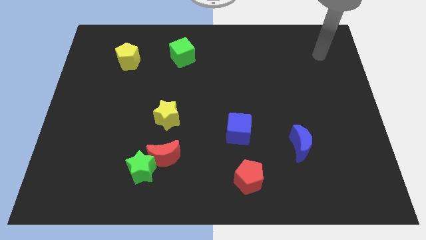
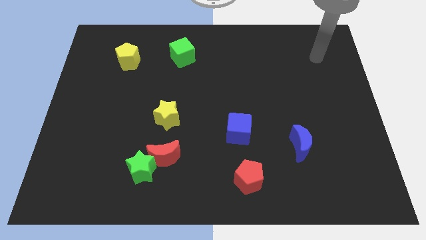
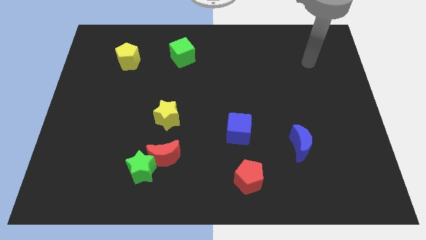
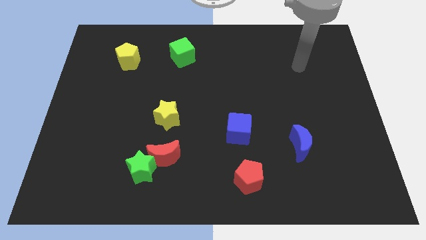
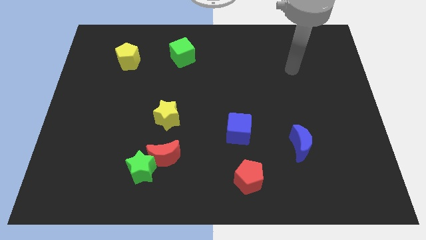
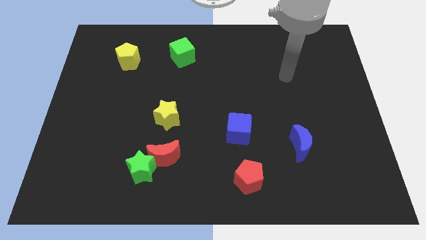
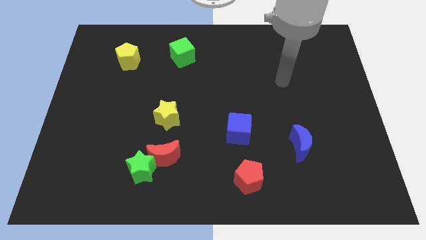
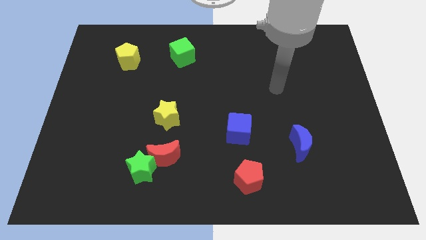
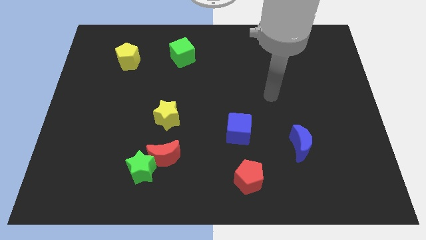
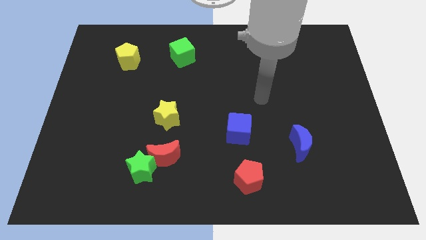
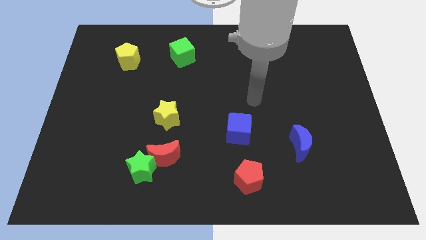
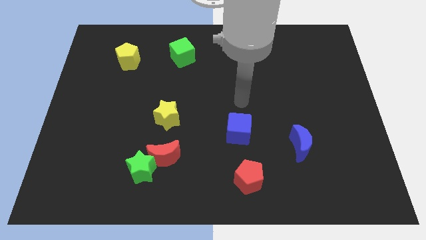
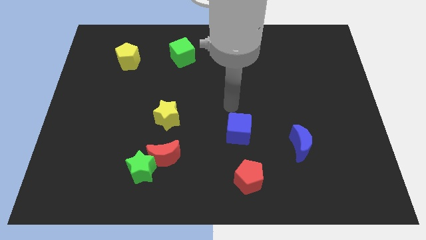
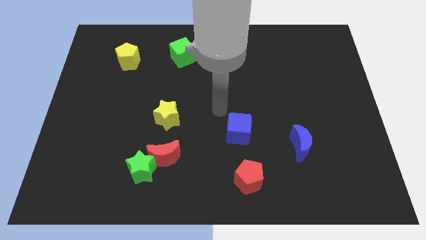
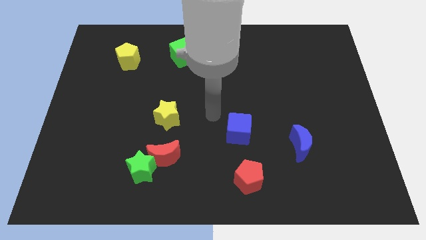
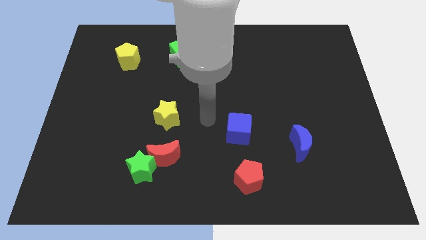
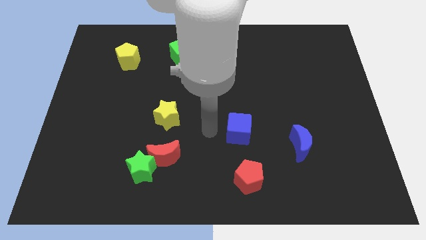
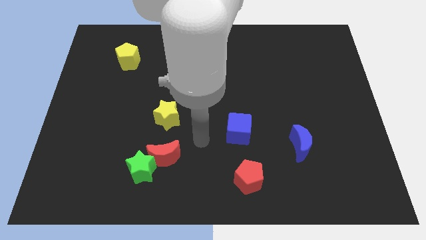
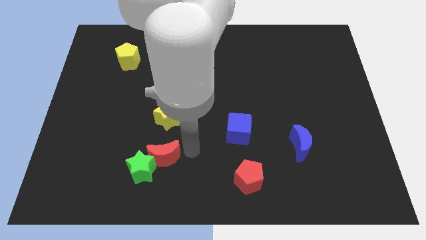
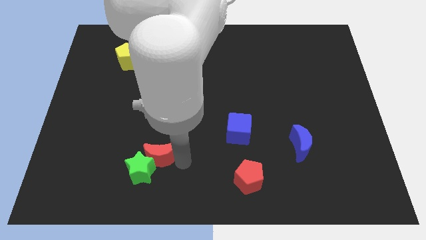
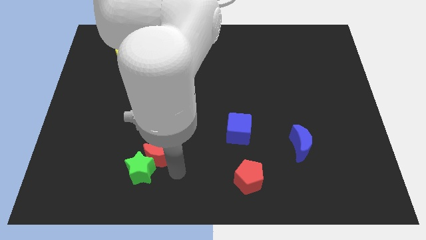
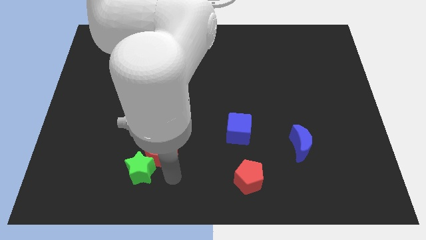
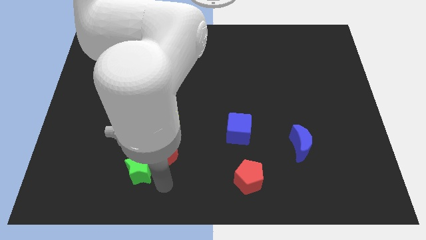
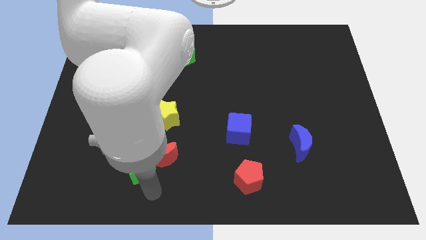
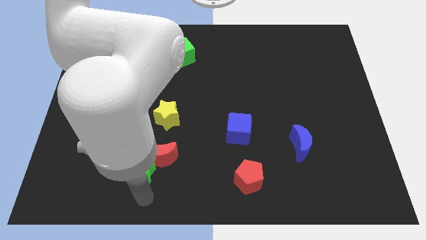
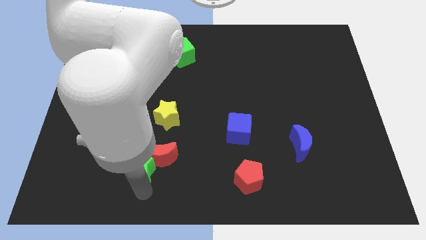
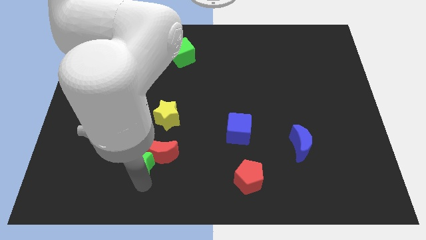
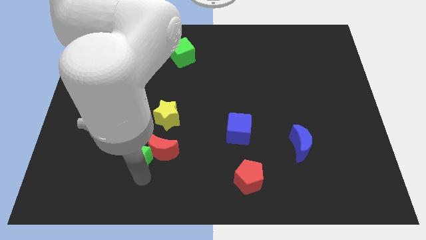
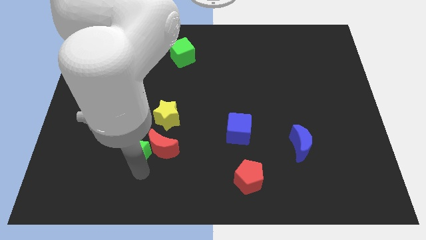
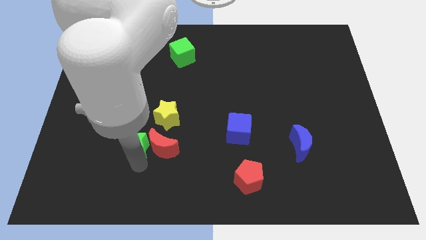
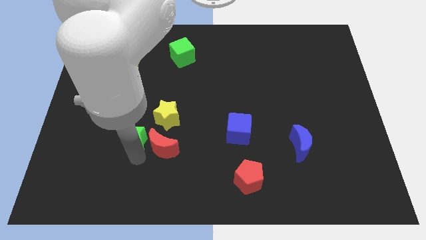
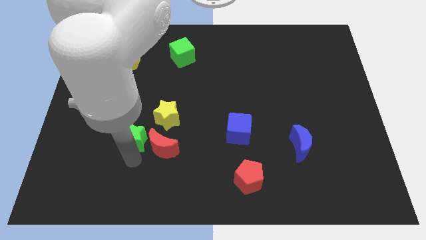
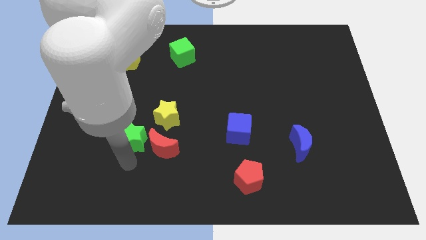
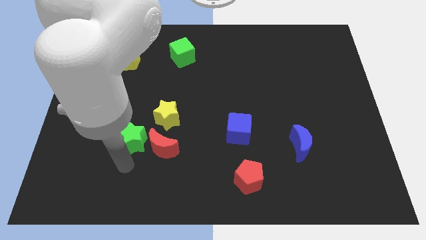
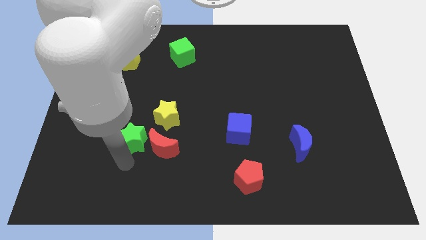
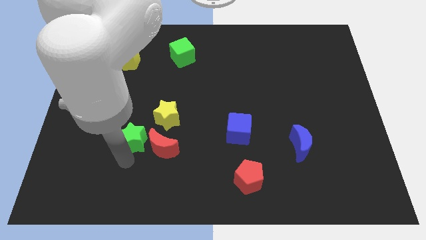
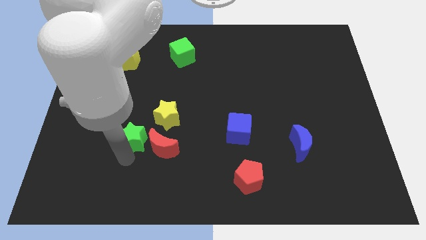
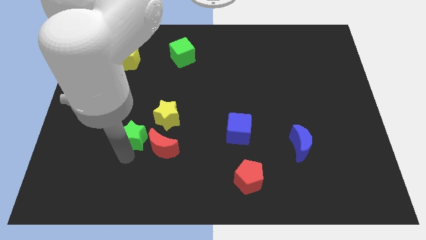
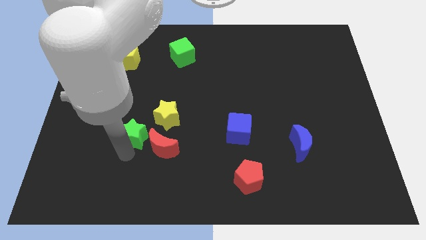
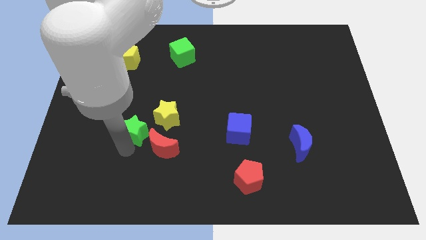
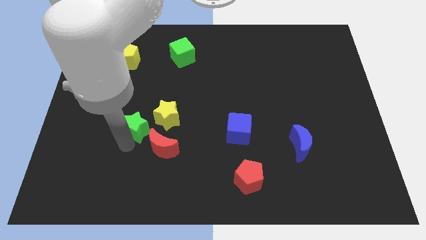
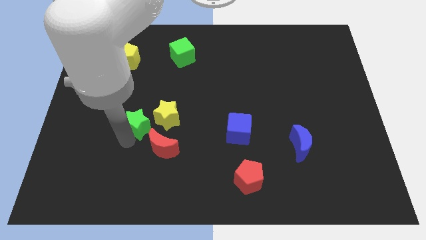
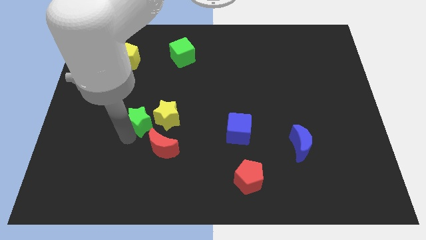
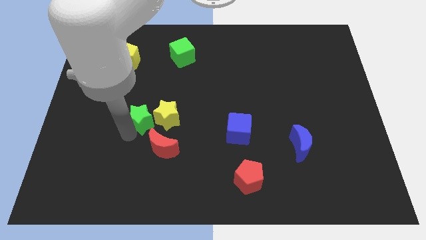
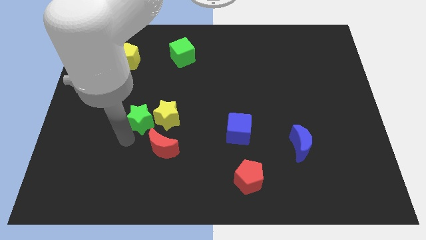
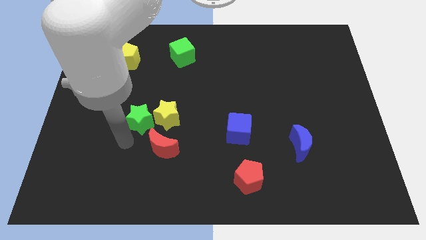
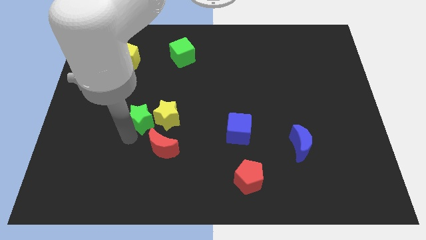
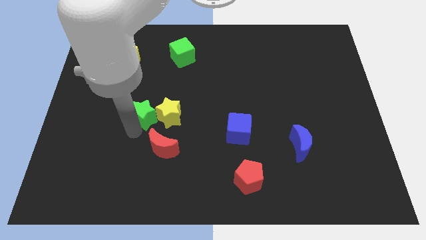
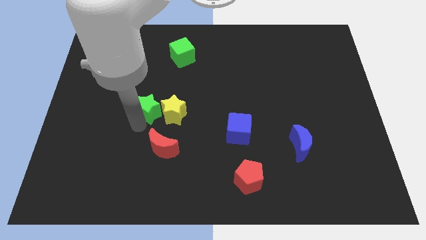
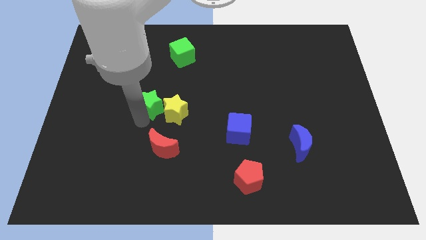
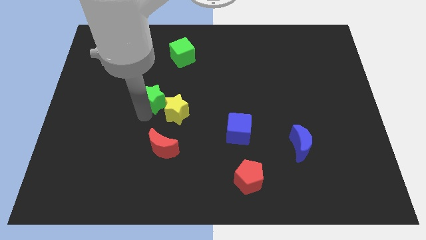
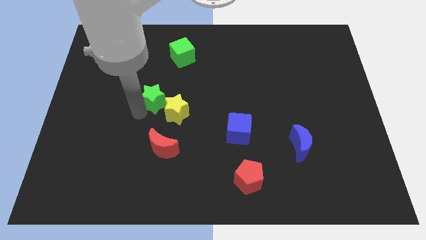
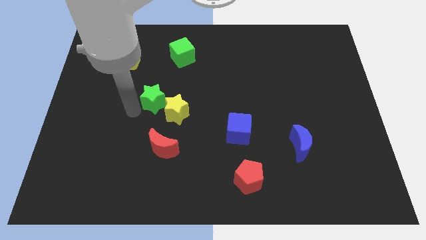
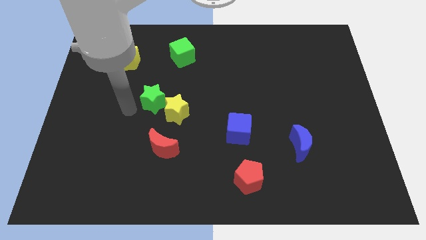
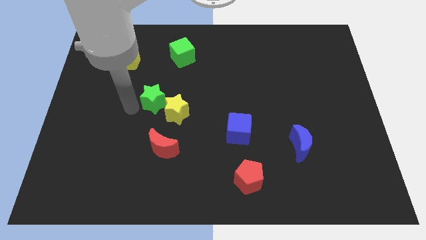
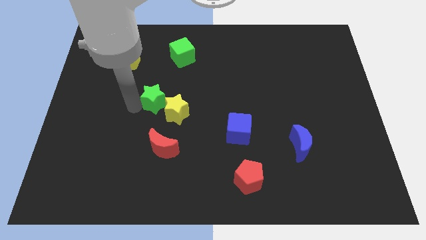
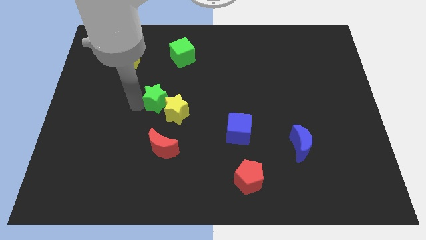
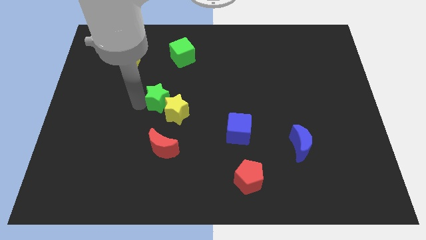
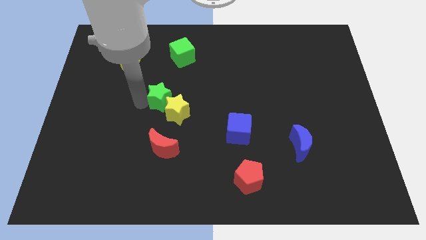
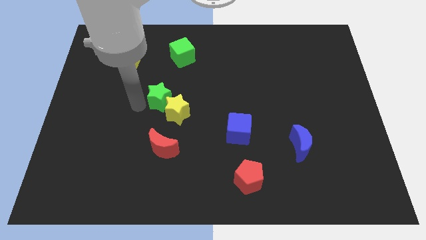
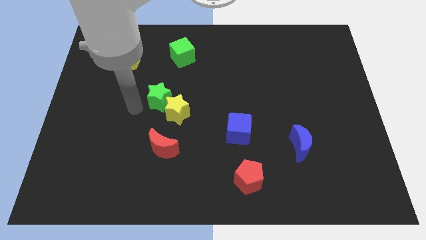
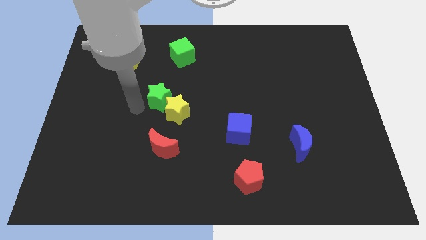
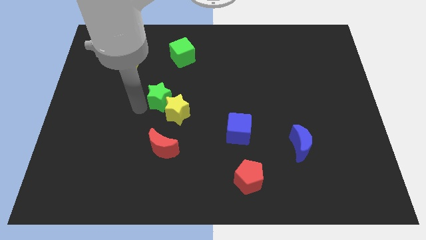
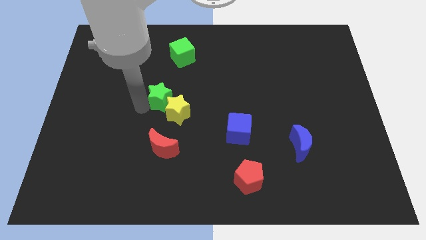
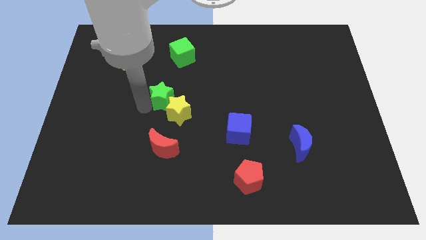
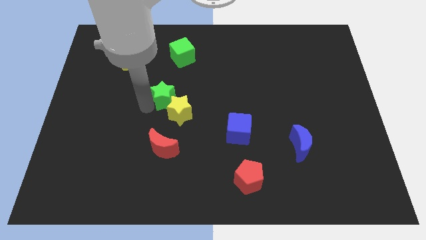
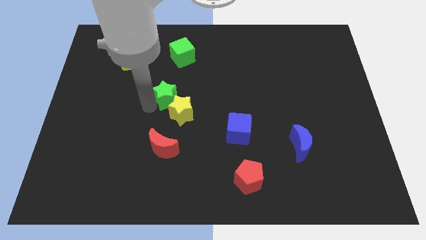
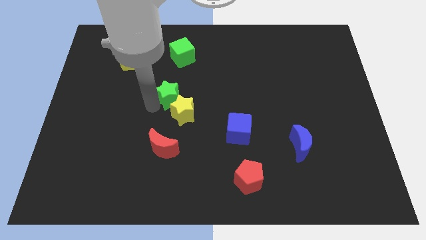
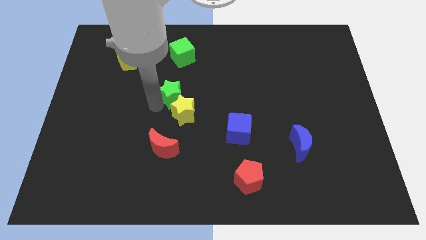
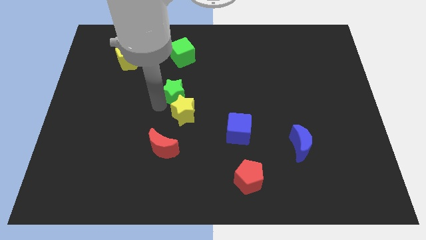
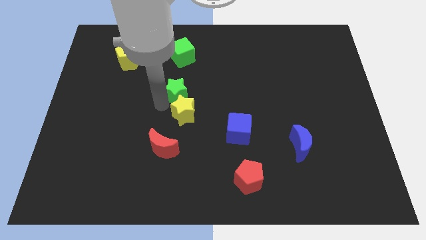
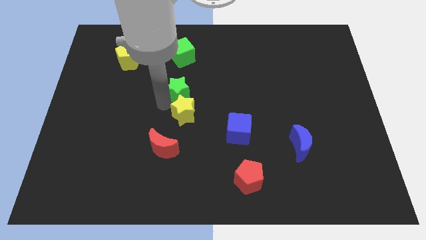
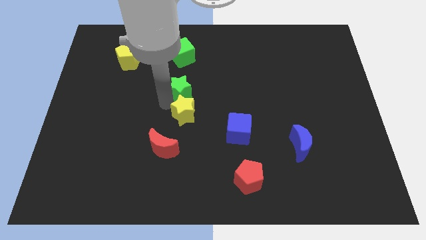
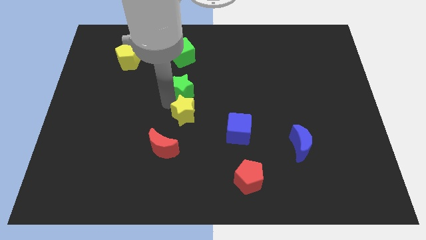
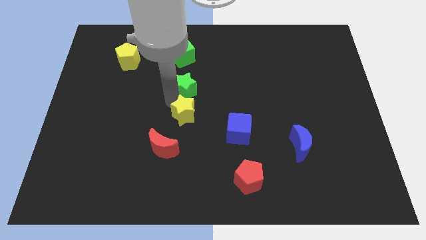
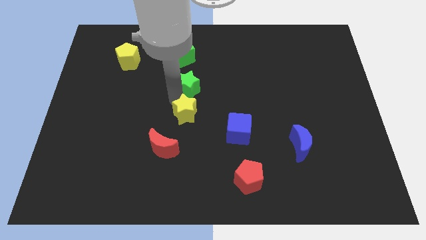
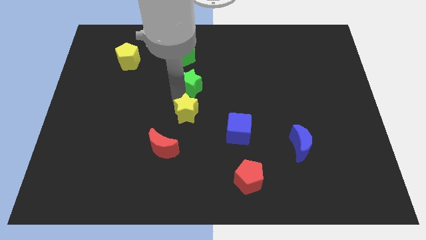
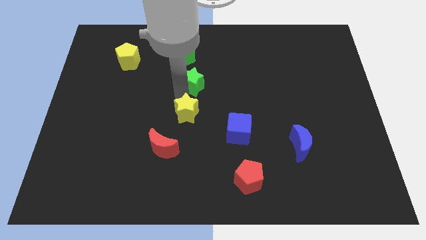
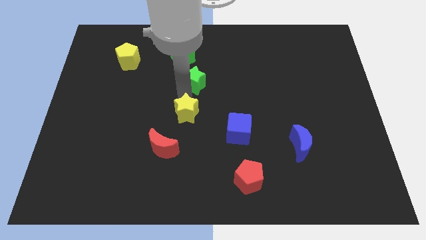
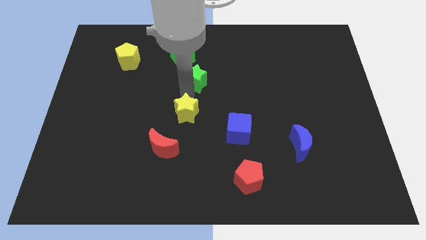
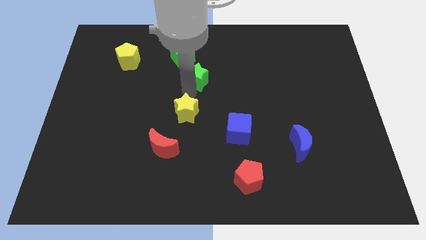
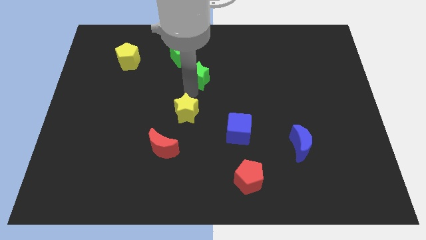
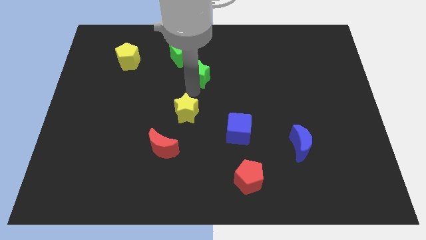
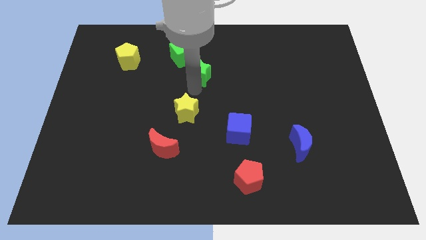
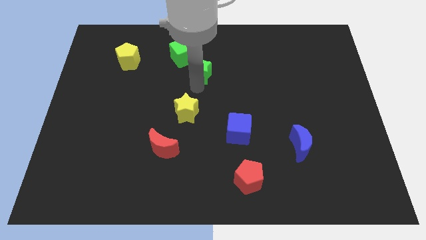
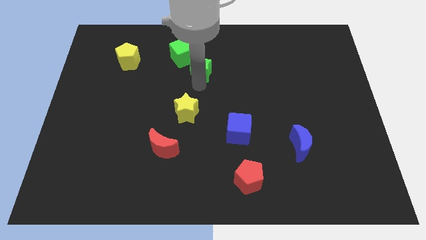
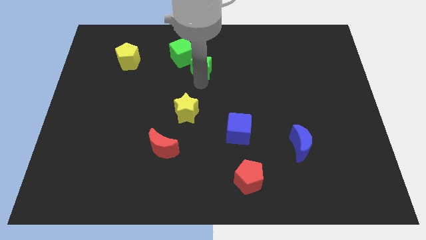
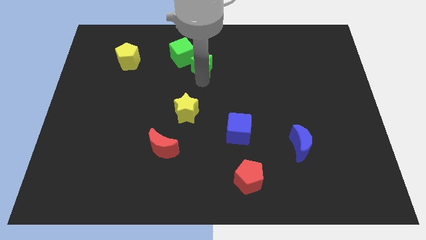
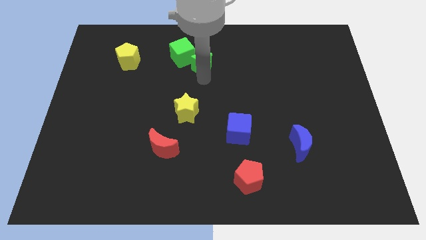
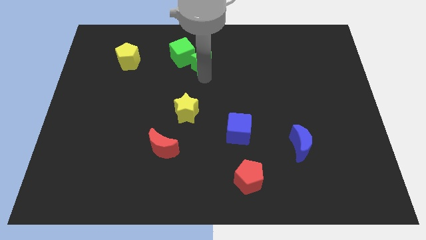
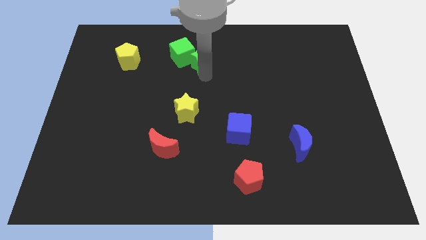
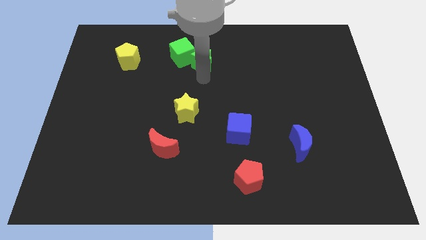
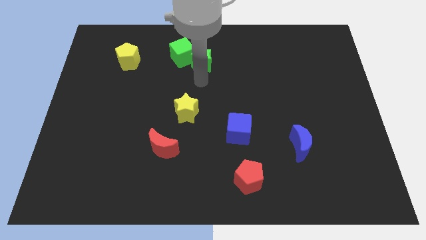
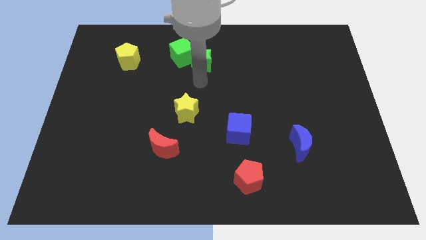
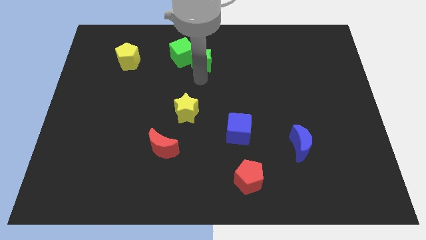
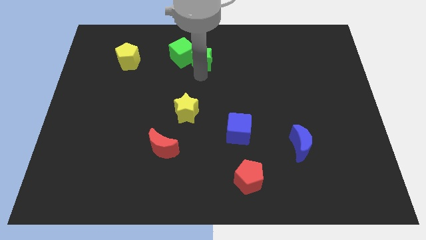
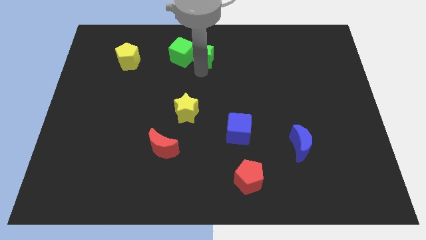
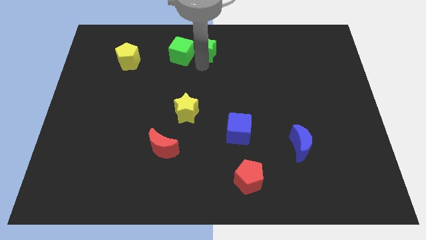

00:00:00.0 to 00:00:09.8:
slide the green star to the top
